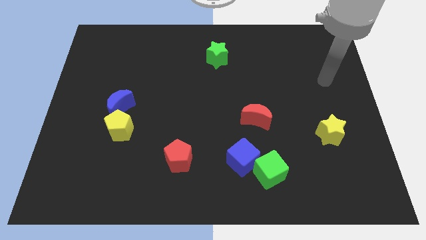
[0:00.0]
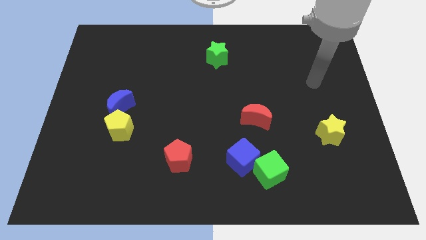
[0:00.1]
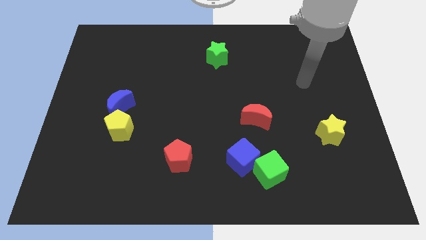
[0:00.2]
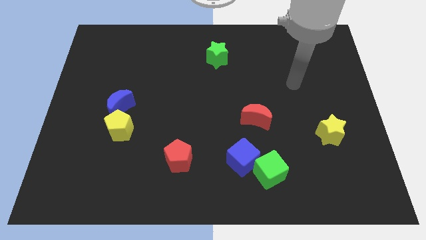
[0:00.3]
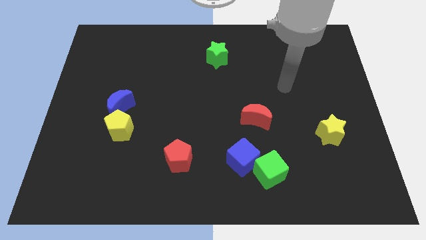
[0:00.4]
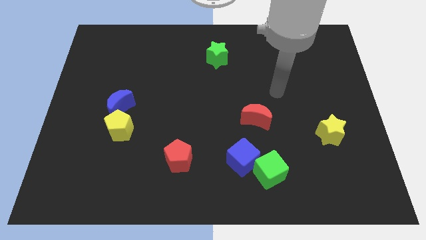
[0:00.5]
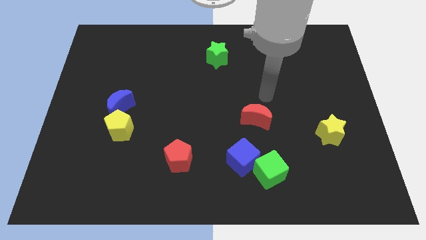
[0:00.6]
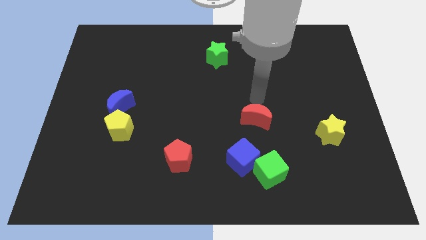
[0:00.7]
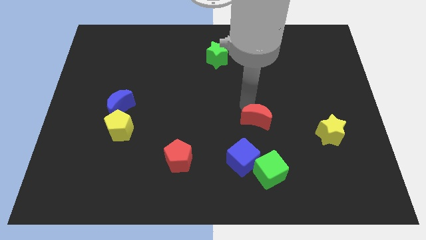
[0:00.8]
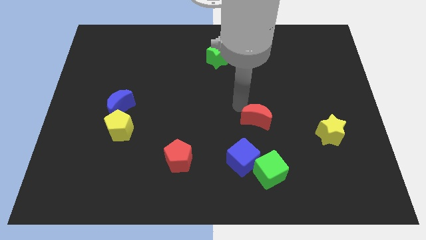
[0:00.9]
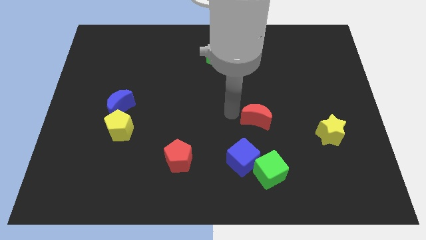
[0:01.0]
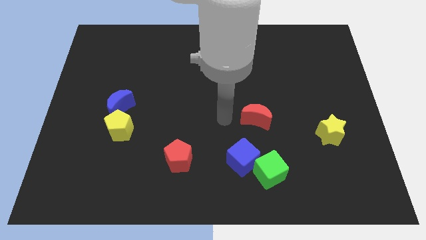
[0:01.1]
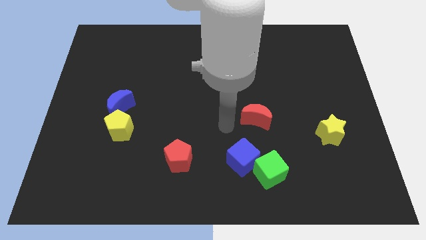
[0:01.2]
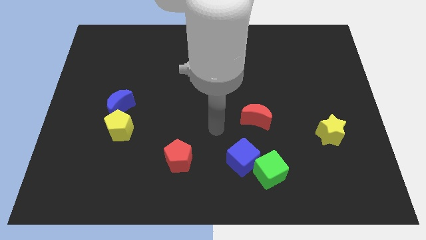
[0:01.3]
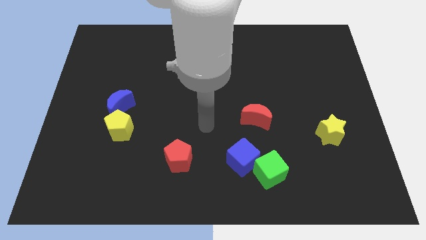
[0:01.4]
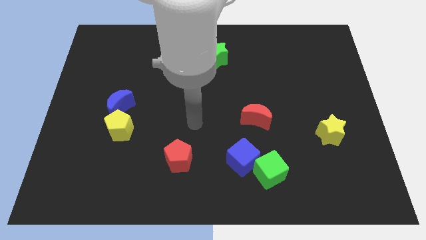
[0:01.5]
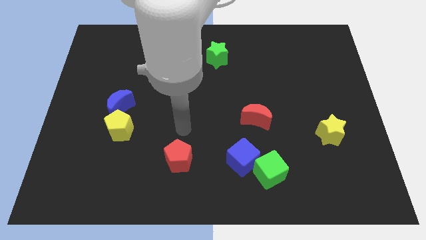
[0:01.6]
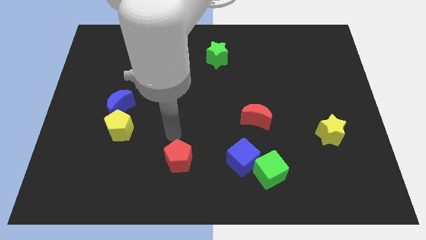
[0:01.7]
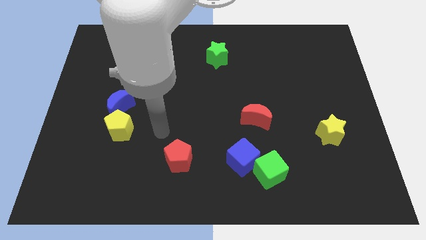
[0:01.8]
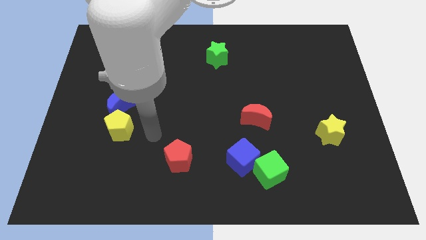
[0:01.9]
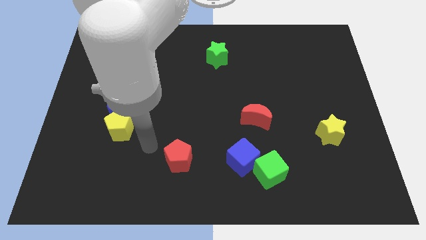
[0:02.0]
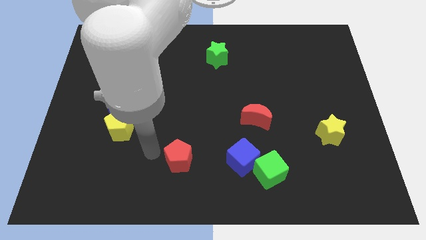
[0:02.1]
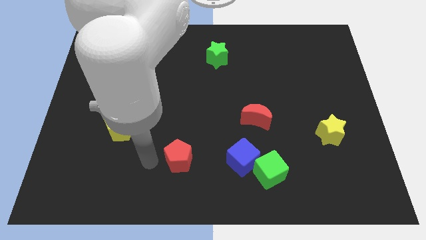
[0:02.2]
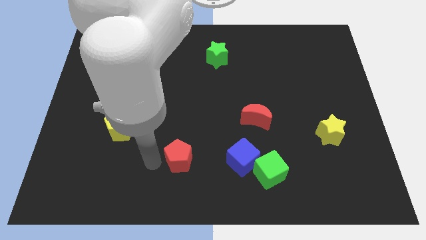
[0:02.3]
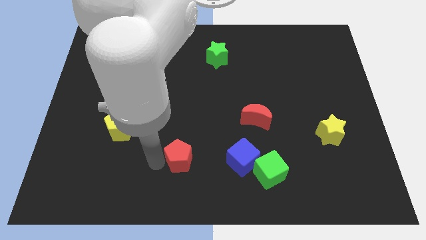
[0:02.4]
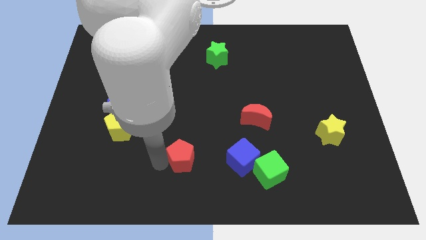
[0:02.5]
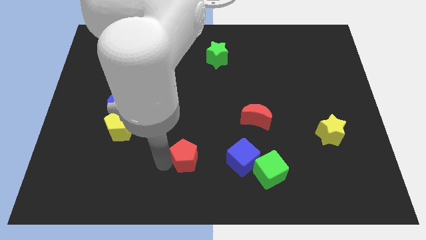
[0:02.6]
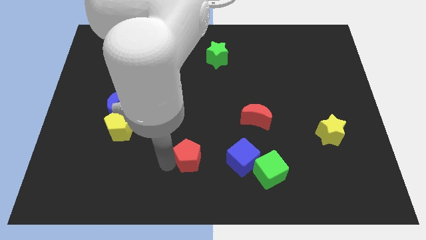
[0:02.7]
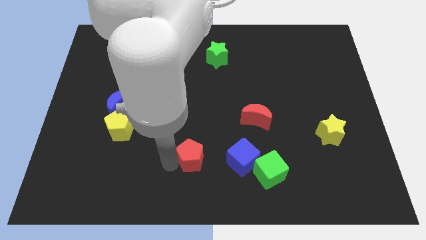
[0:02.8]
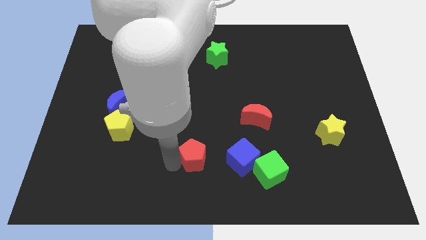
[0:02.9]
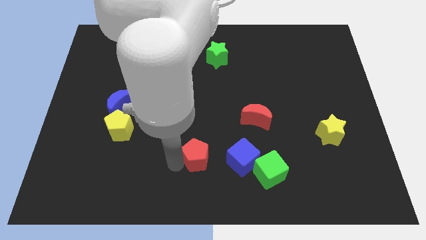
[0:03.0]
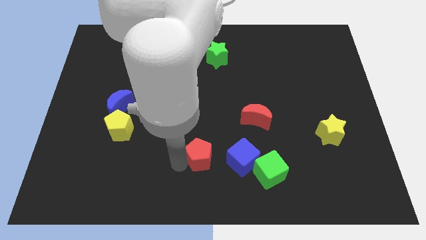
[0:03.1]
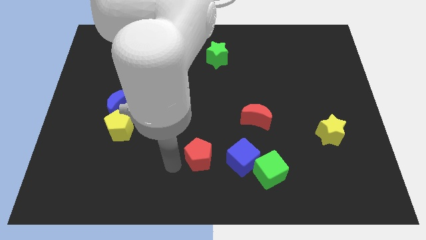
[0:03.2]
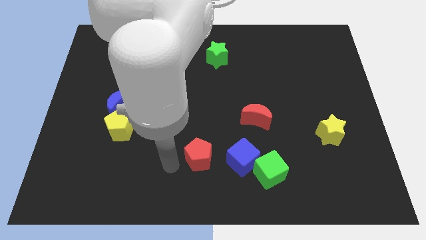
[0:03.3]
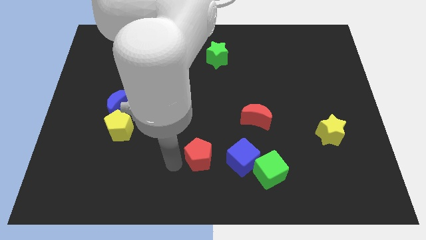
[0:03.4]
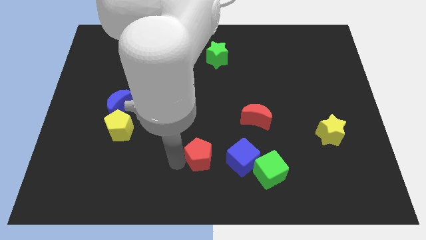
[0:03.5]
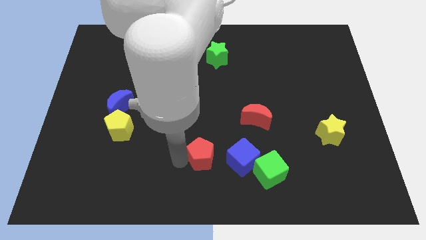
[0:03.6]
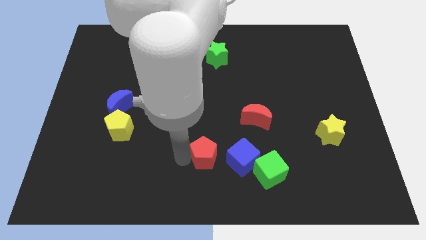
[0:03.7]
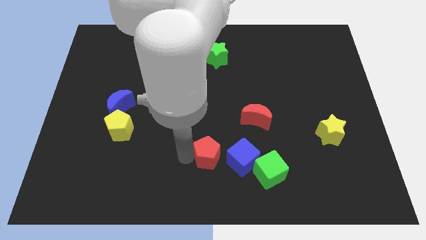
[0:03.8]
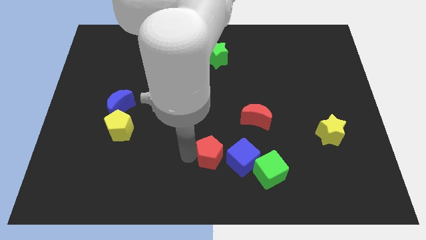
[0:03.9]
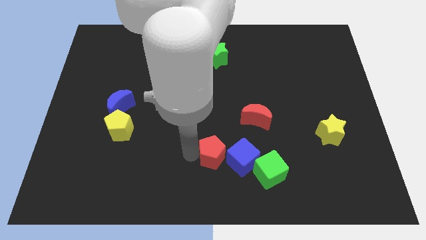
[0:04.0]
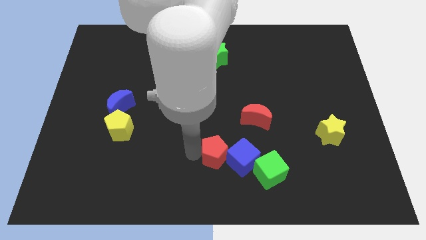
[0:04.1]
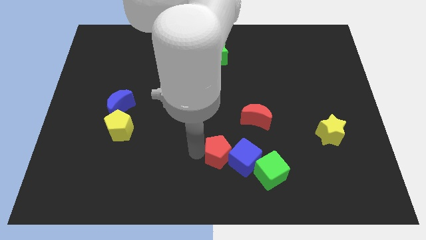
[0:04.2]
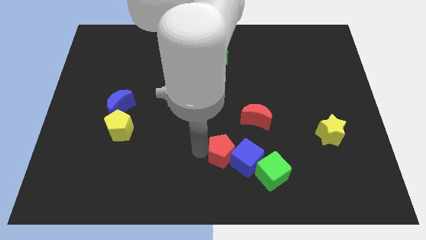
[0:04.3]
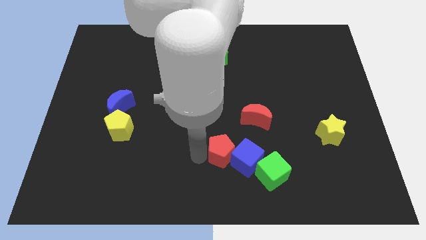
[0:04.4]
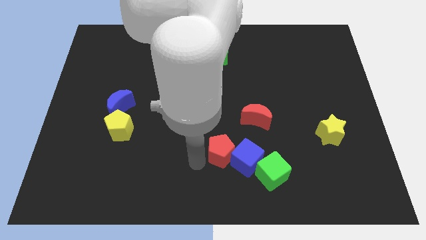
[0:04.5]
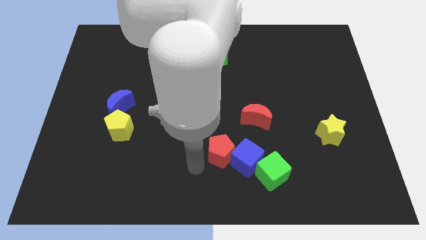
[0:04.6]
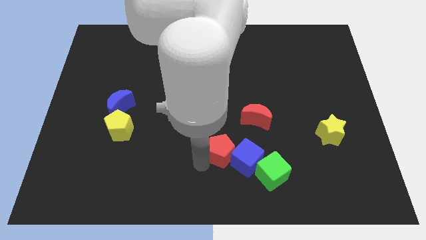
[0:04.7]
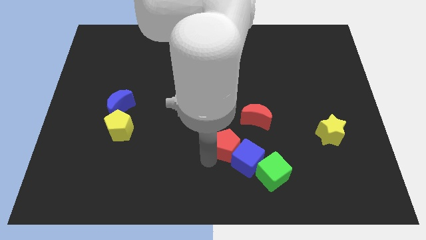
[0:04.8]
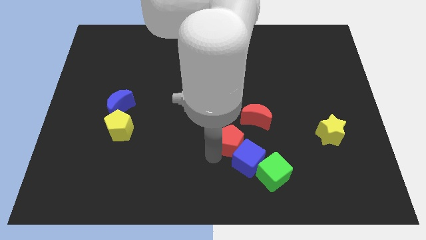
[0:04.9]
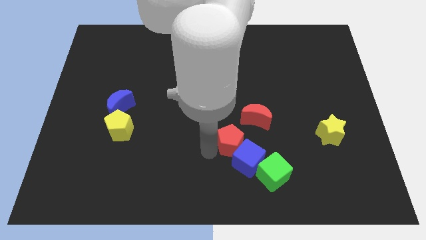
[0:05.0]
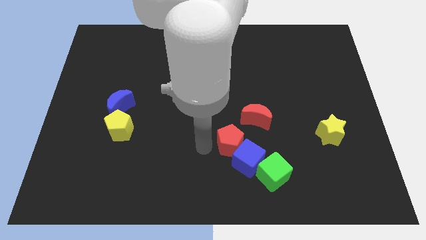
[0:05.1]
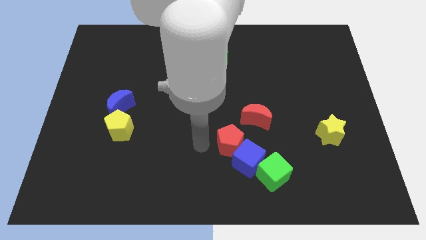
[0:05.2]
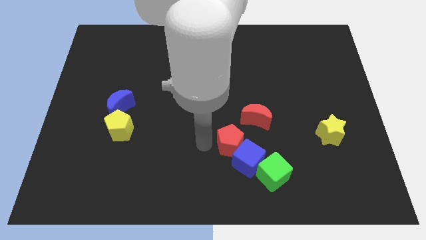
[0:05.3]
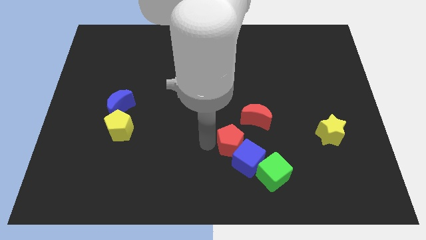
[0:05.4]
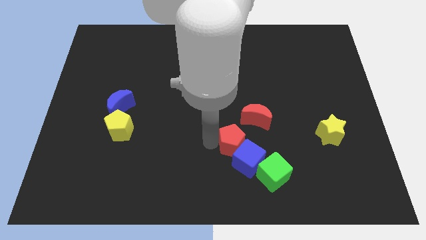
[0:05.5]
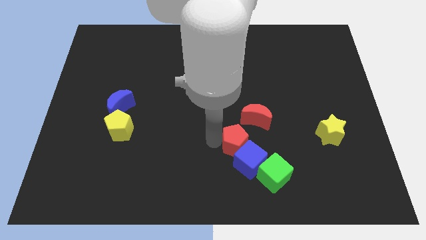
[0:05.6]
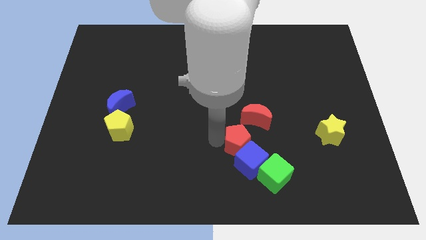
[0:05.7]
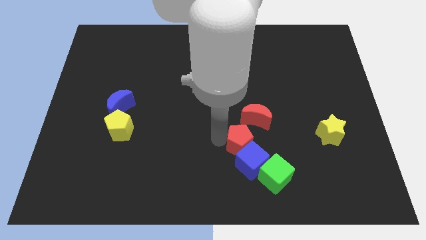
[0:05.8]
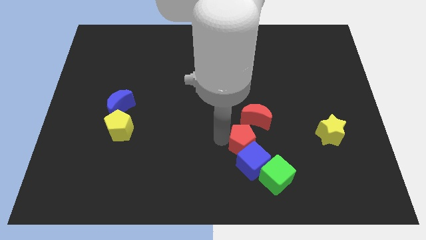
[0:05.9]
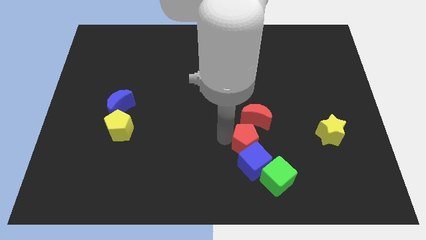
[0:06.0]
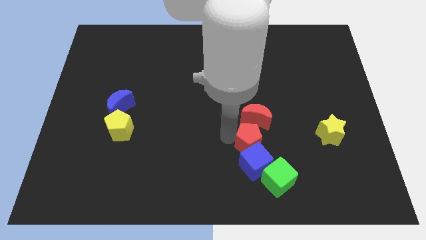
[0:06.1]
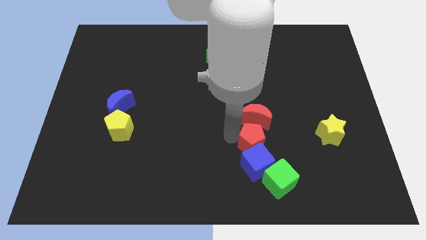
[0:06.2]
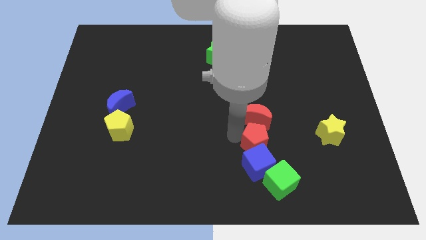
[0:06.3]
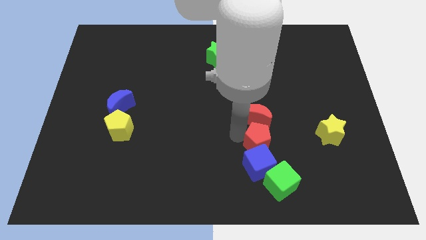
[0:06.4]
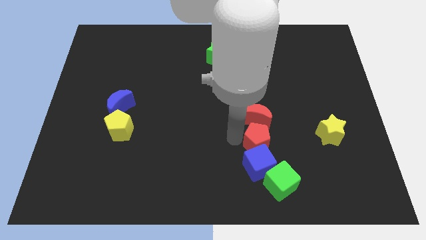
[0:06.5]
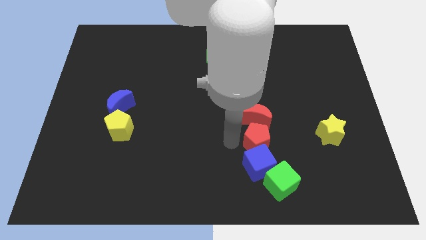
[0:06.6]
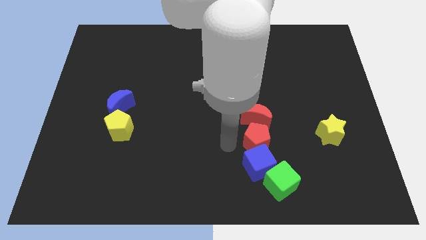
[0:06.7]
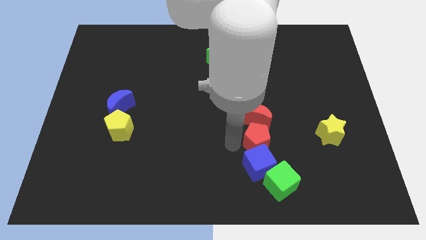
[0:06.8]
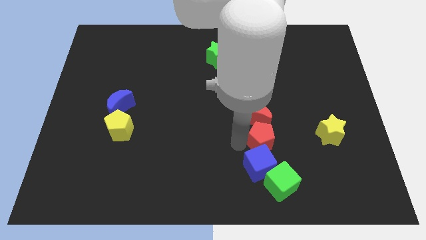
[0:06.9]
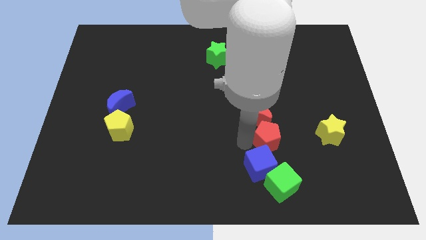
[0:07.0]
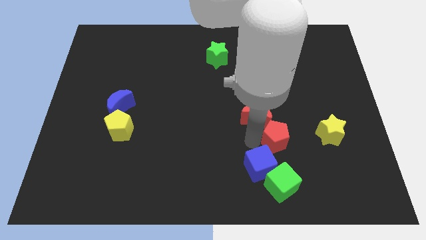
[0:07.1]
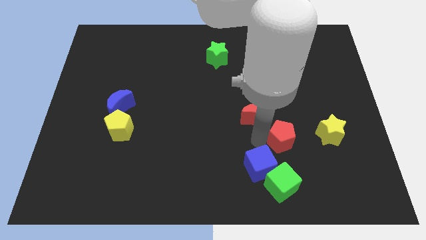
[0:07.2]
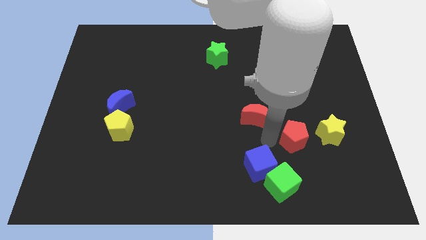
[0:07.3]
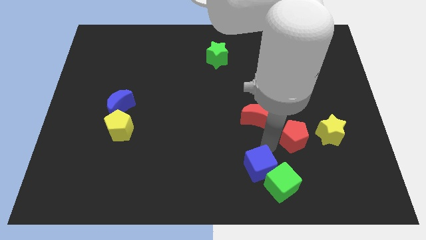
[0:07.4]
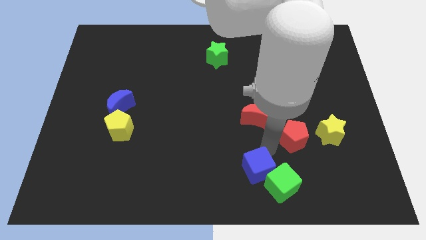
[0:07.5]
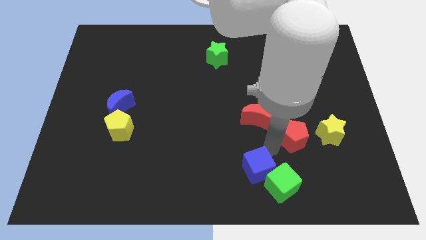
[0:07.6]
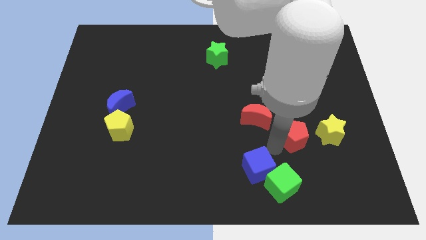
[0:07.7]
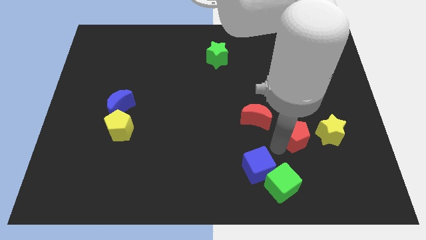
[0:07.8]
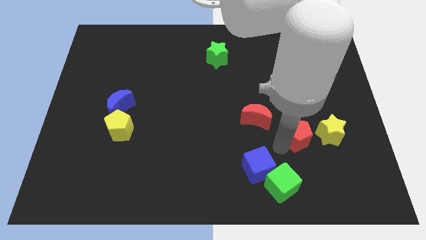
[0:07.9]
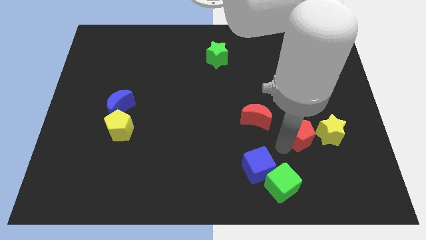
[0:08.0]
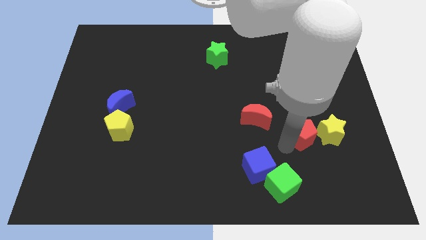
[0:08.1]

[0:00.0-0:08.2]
slide the red pentagon towards the yellow star
